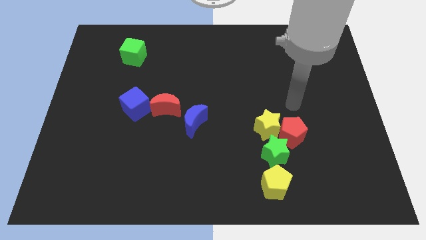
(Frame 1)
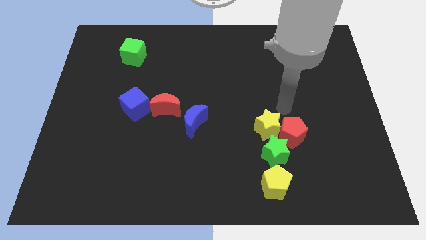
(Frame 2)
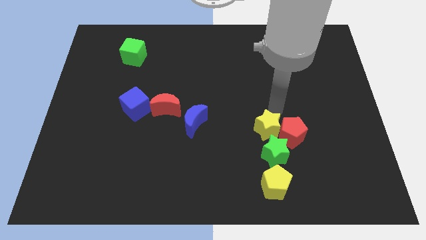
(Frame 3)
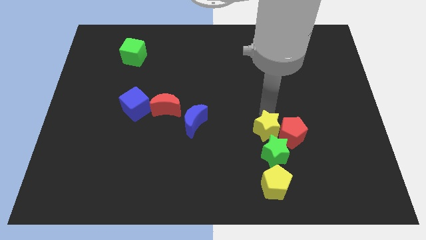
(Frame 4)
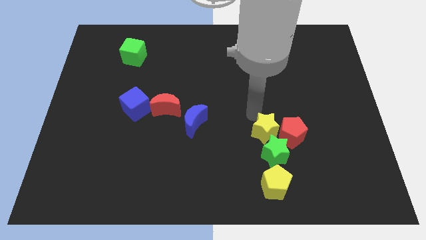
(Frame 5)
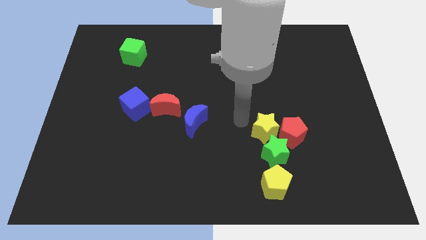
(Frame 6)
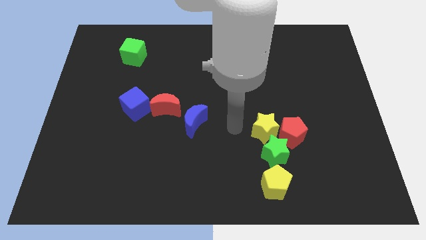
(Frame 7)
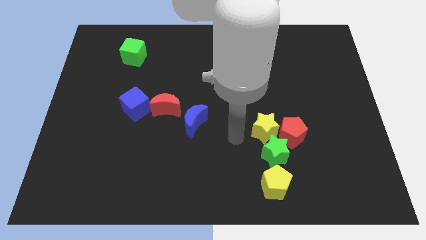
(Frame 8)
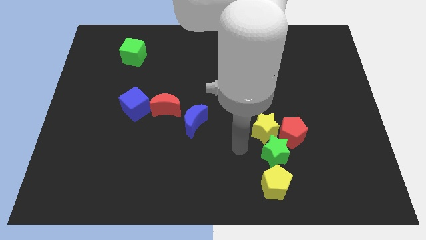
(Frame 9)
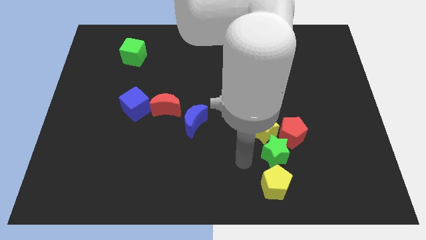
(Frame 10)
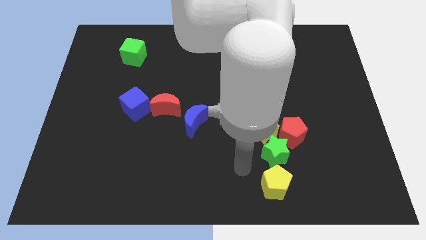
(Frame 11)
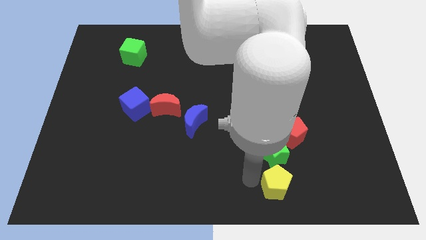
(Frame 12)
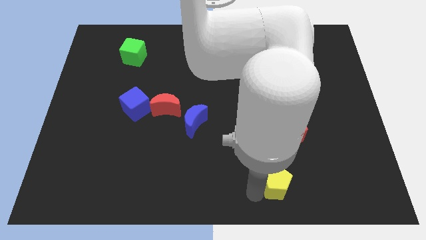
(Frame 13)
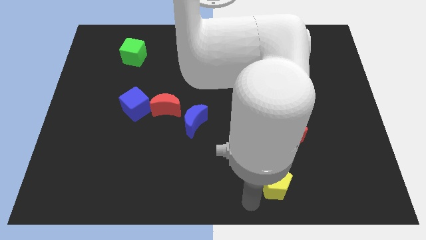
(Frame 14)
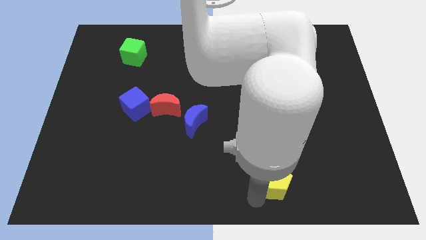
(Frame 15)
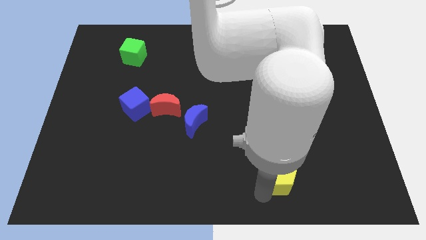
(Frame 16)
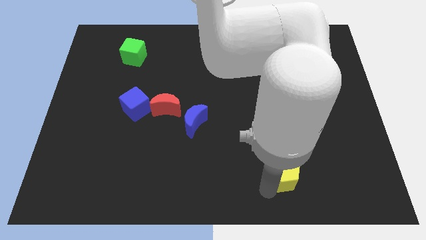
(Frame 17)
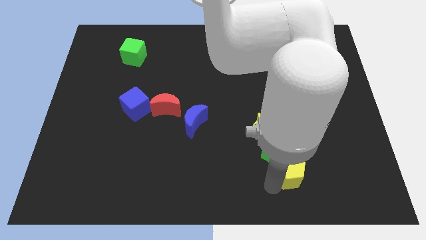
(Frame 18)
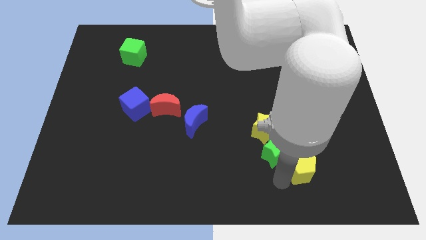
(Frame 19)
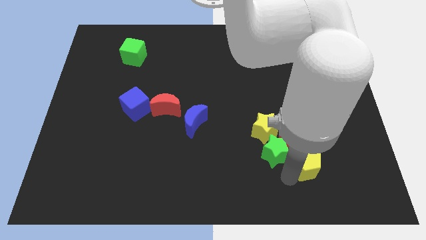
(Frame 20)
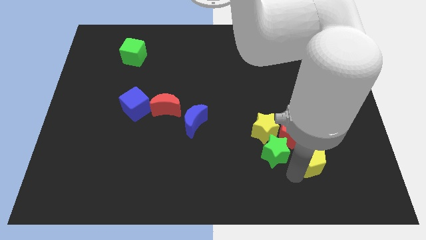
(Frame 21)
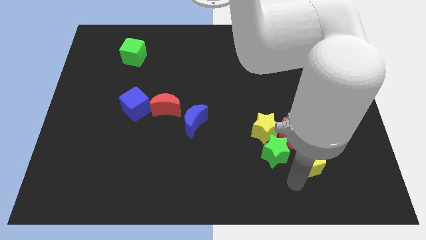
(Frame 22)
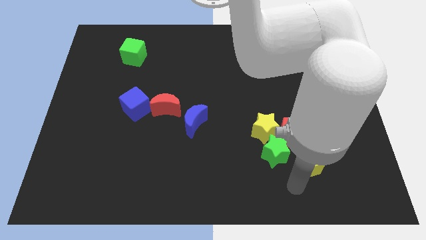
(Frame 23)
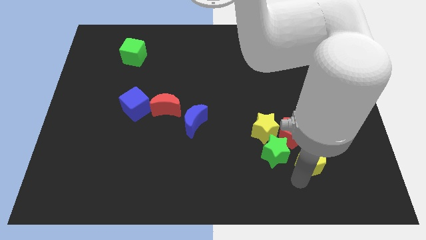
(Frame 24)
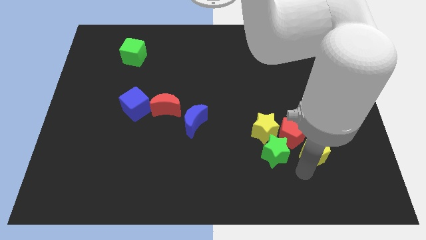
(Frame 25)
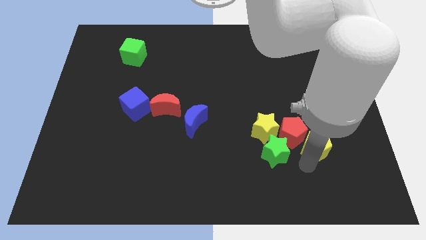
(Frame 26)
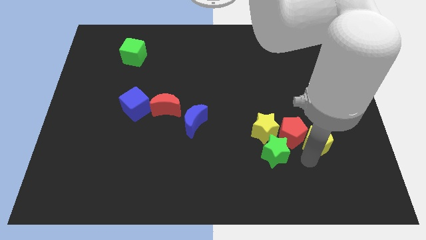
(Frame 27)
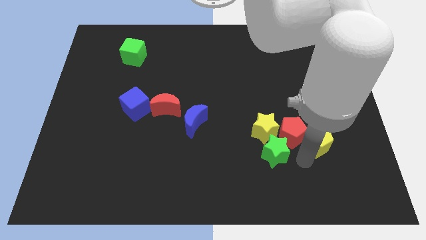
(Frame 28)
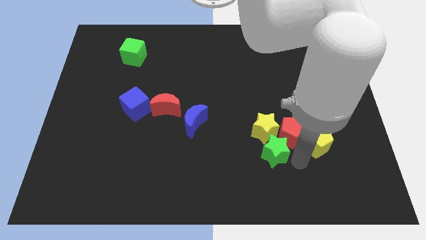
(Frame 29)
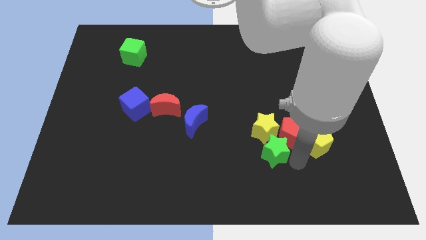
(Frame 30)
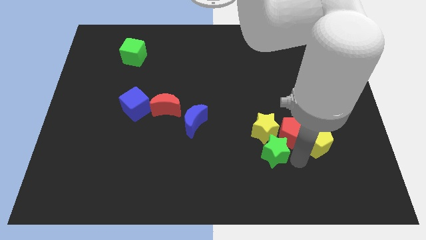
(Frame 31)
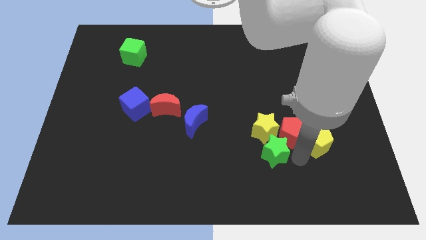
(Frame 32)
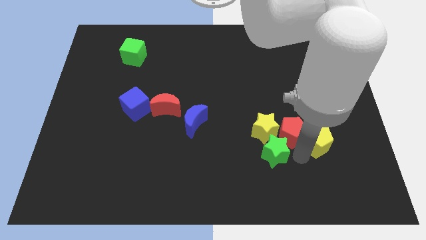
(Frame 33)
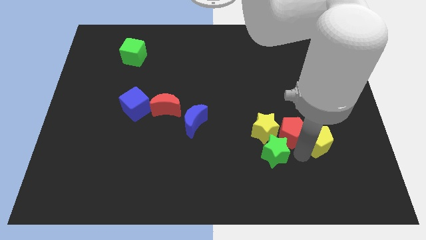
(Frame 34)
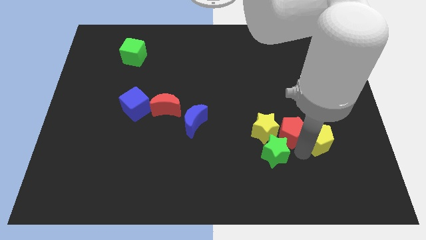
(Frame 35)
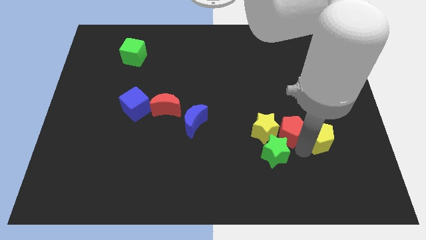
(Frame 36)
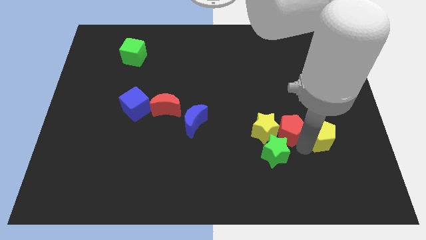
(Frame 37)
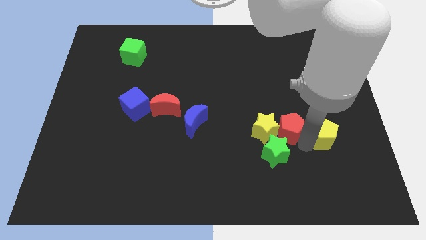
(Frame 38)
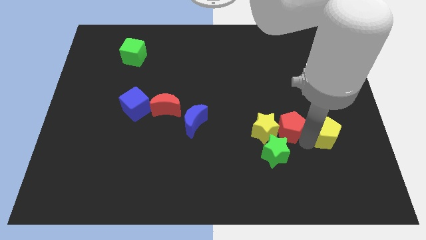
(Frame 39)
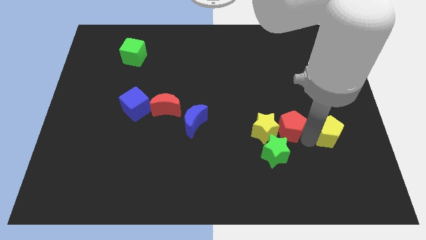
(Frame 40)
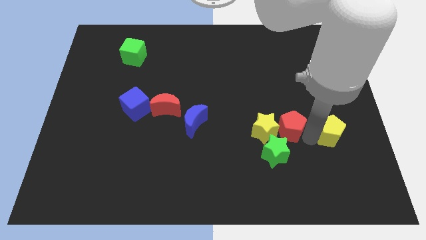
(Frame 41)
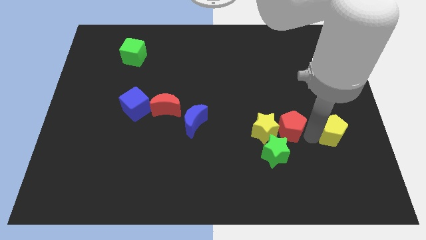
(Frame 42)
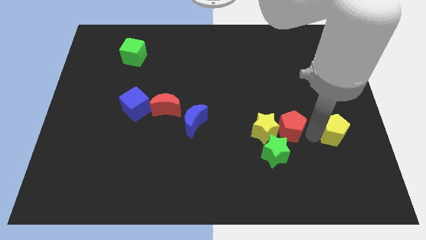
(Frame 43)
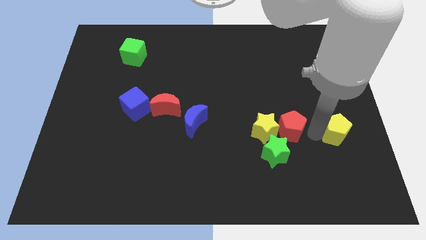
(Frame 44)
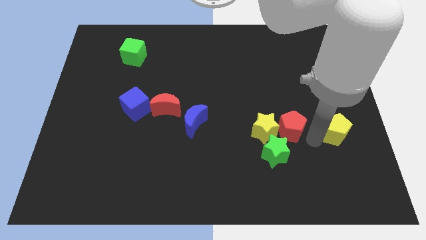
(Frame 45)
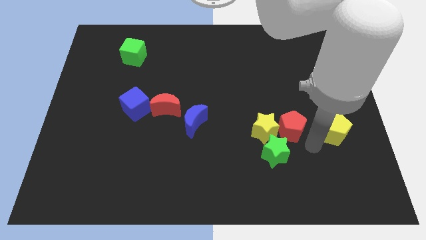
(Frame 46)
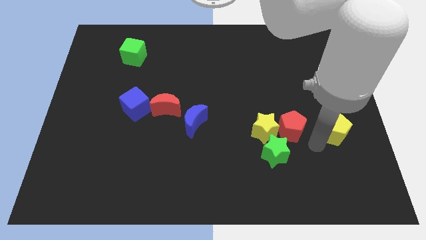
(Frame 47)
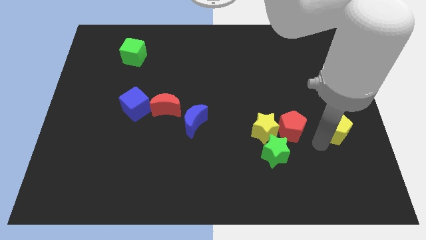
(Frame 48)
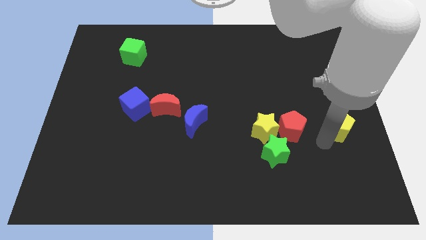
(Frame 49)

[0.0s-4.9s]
push the yellow pentagon to the center right

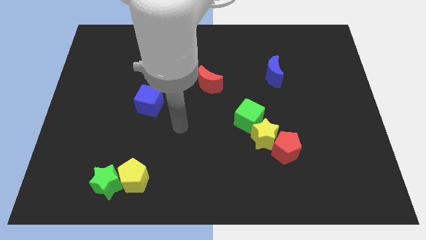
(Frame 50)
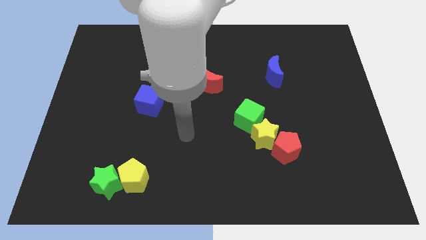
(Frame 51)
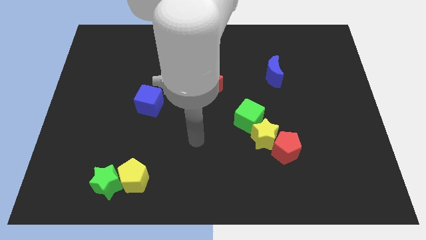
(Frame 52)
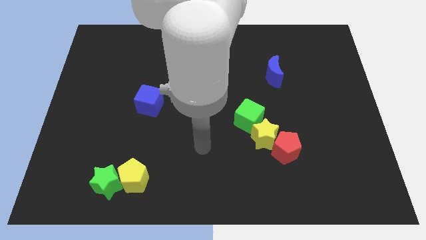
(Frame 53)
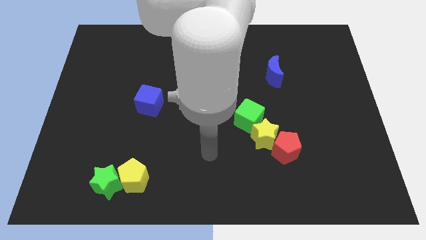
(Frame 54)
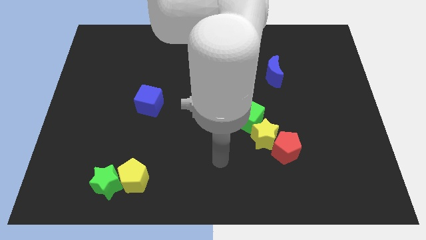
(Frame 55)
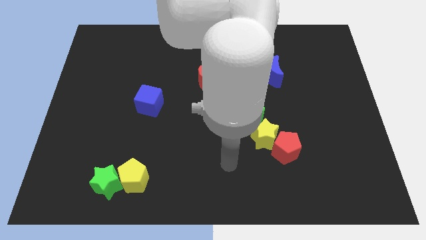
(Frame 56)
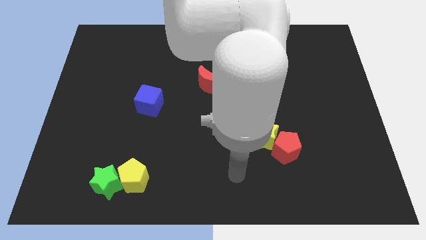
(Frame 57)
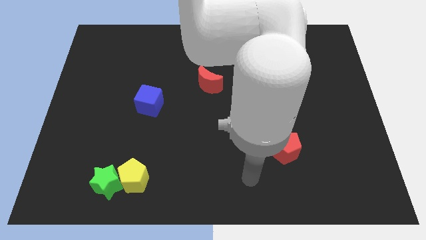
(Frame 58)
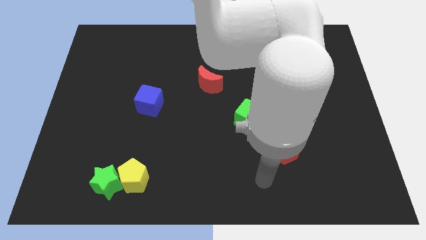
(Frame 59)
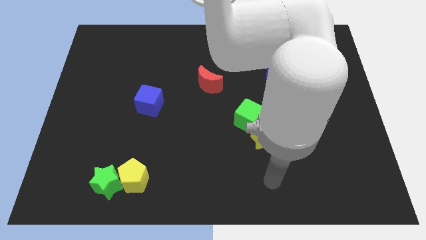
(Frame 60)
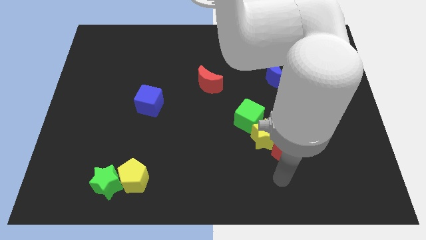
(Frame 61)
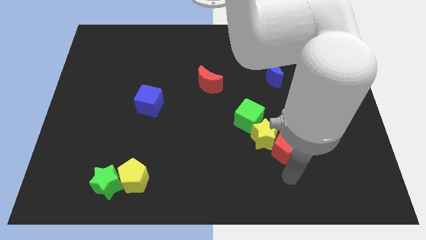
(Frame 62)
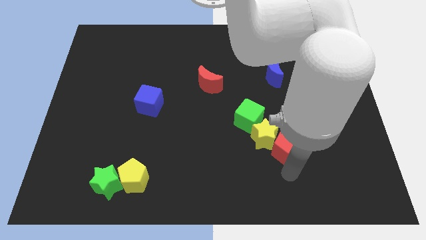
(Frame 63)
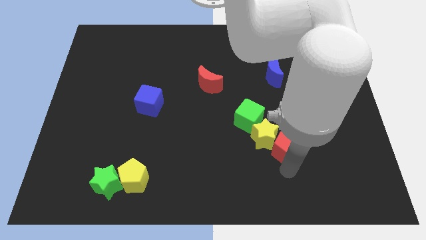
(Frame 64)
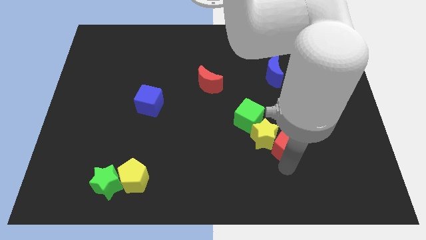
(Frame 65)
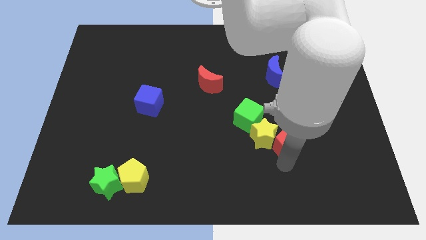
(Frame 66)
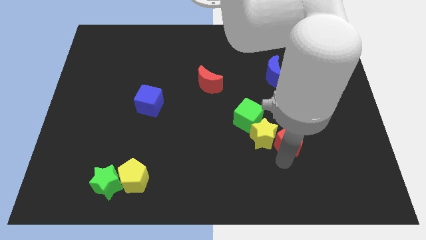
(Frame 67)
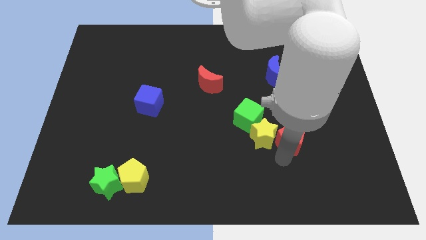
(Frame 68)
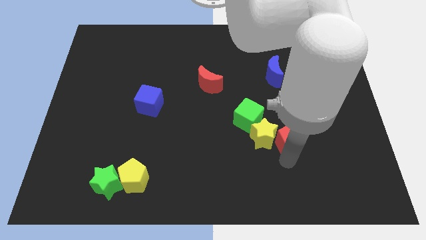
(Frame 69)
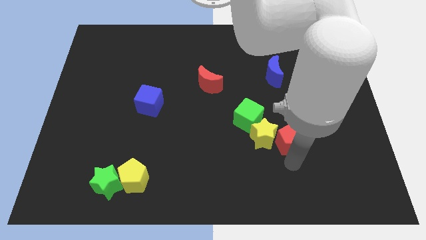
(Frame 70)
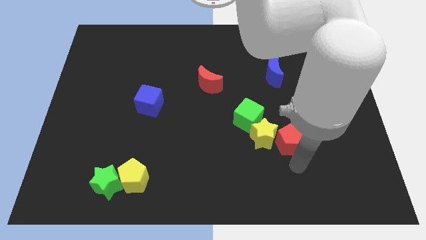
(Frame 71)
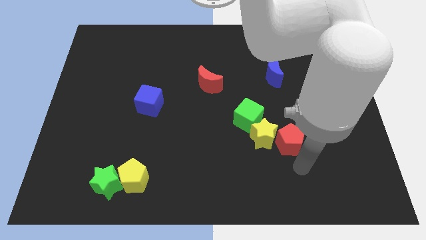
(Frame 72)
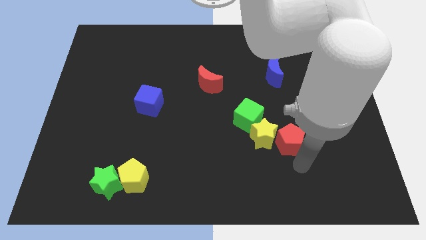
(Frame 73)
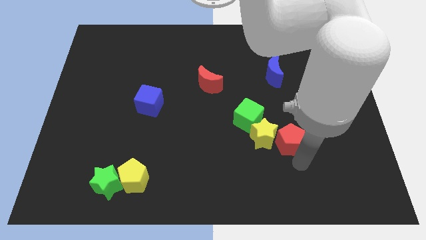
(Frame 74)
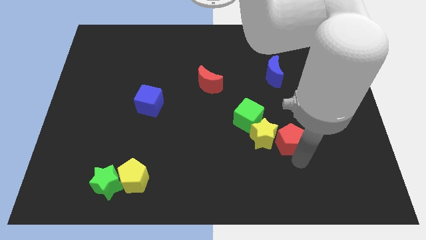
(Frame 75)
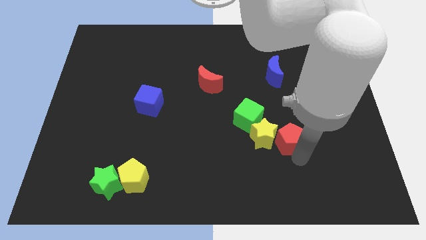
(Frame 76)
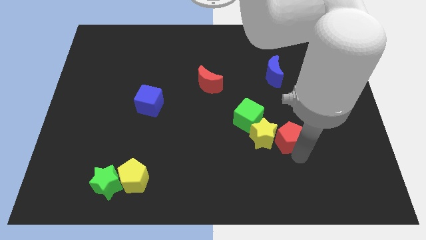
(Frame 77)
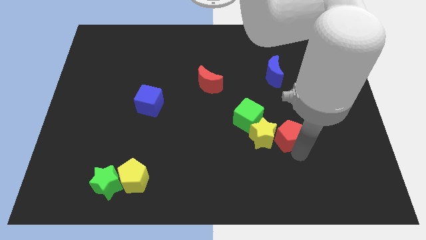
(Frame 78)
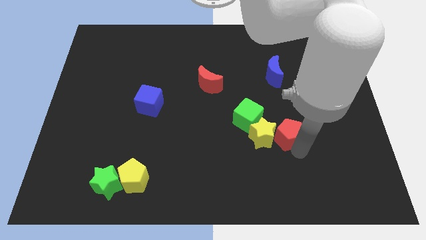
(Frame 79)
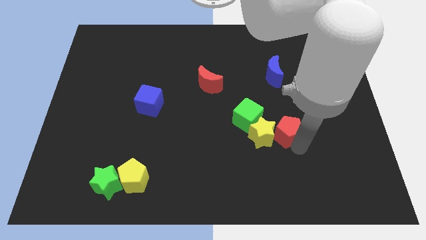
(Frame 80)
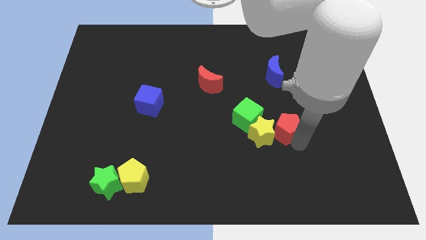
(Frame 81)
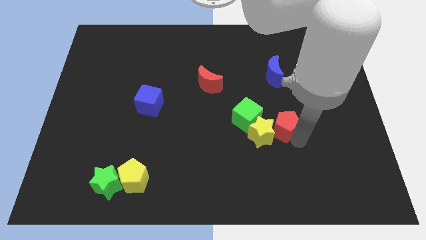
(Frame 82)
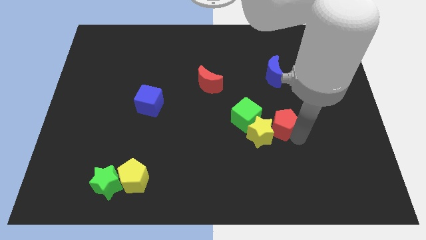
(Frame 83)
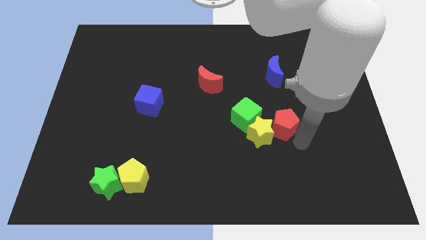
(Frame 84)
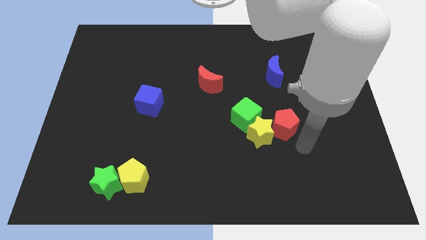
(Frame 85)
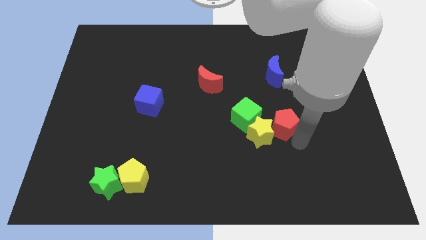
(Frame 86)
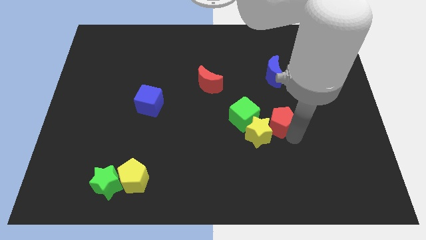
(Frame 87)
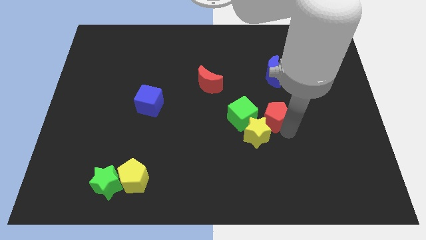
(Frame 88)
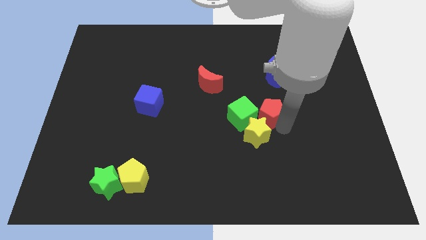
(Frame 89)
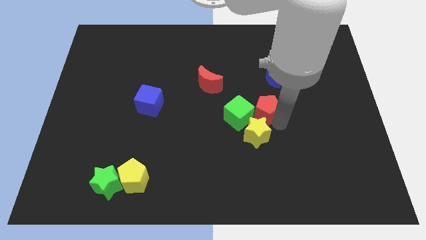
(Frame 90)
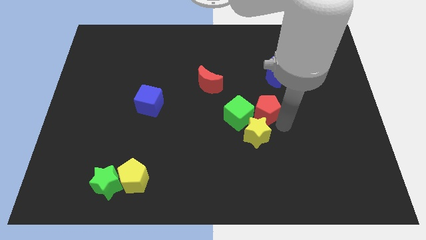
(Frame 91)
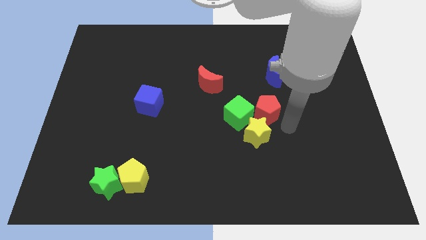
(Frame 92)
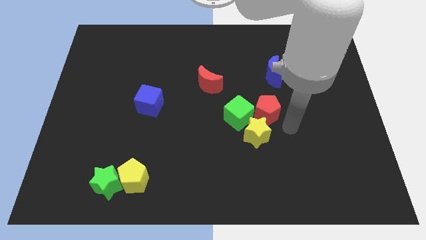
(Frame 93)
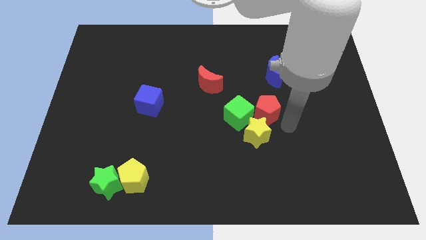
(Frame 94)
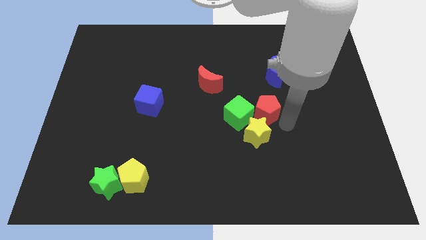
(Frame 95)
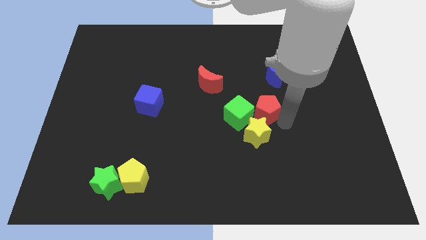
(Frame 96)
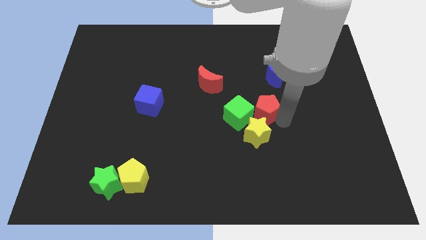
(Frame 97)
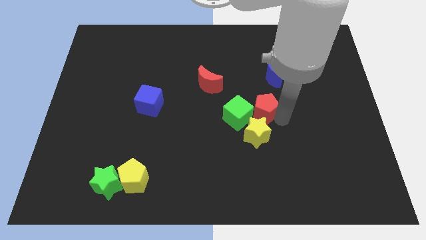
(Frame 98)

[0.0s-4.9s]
put the red pentagon to the middle of the board
